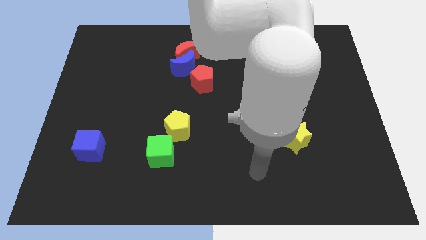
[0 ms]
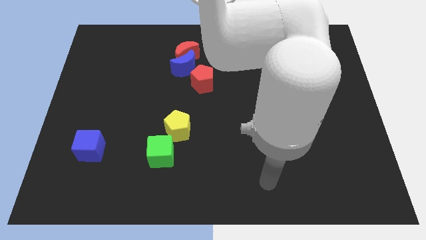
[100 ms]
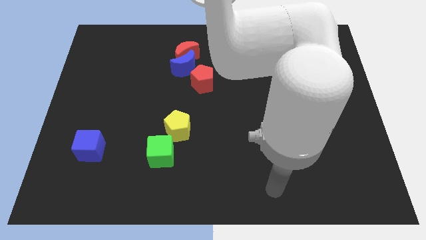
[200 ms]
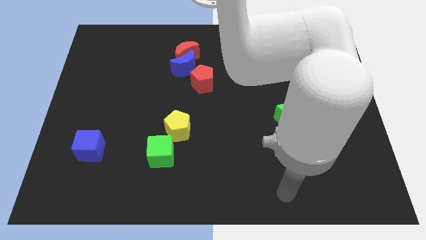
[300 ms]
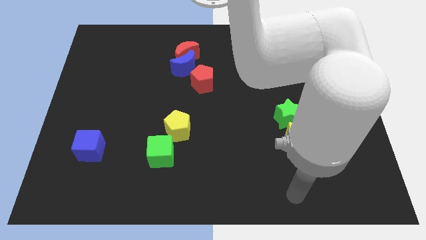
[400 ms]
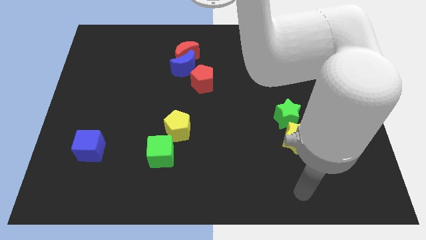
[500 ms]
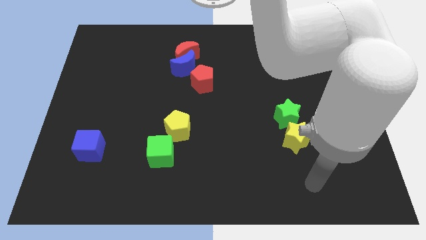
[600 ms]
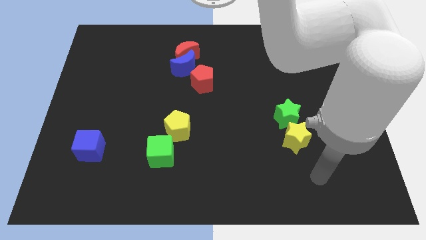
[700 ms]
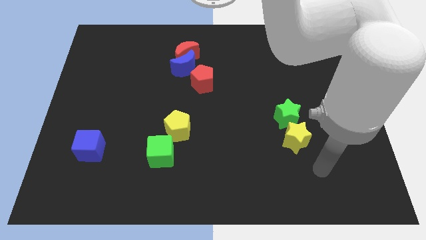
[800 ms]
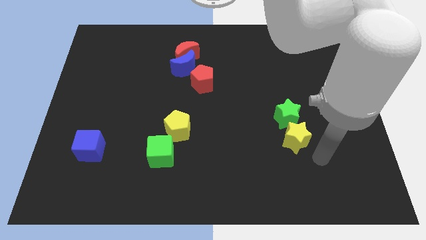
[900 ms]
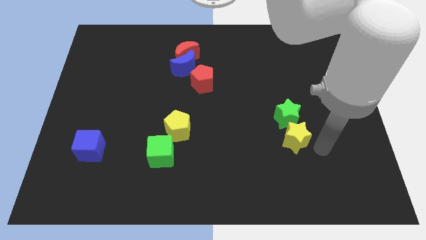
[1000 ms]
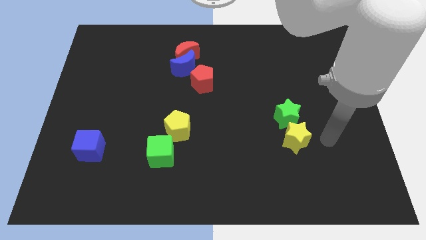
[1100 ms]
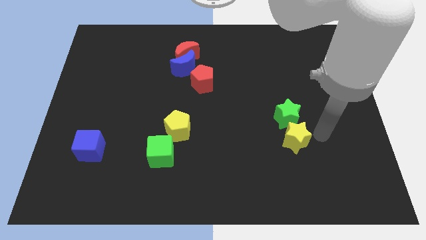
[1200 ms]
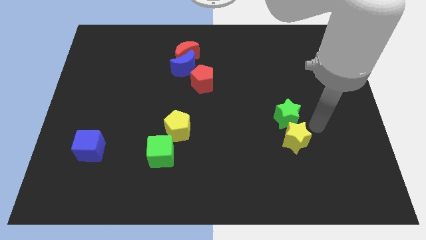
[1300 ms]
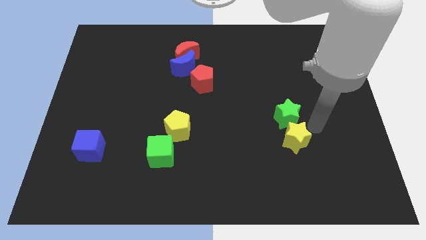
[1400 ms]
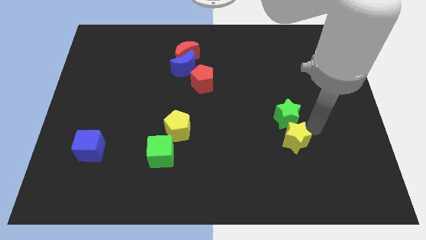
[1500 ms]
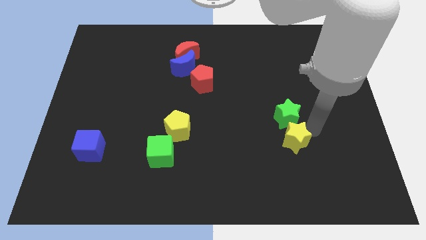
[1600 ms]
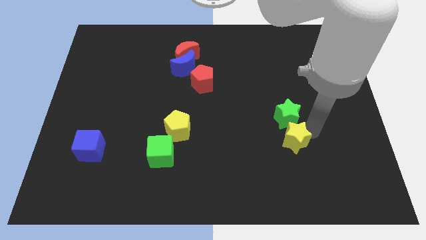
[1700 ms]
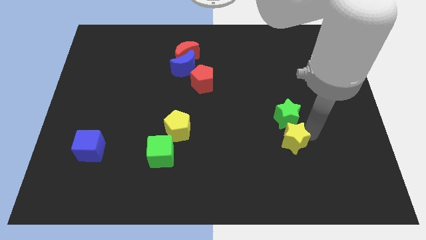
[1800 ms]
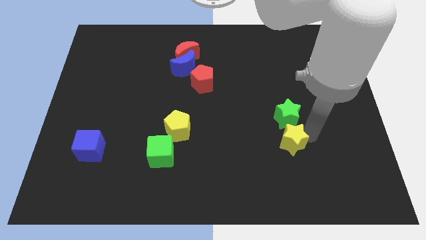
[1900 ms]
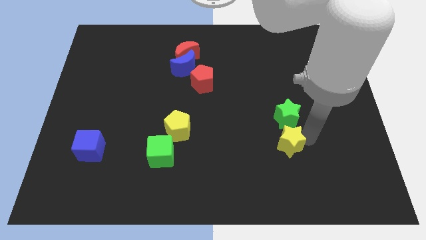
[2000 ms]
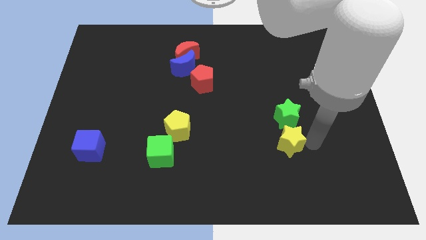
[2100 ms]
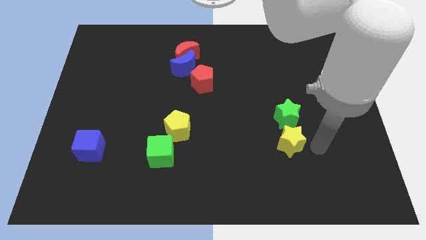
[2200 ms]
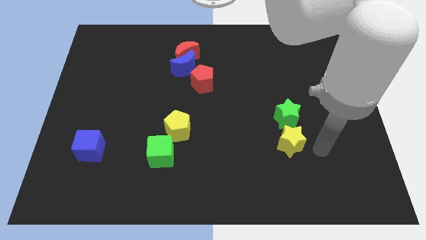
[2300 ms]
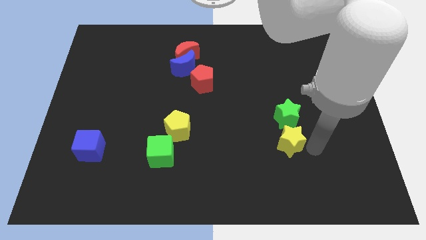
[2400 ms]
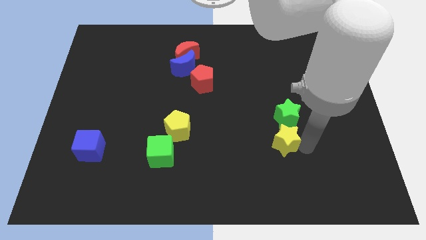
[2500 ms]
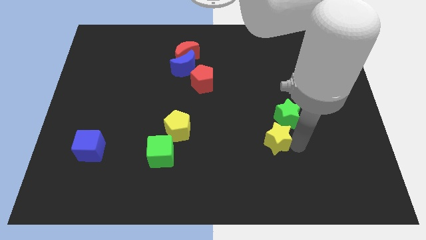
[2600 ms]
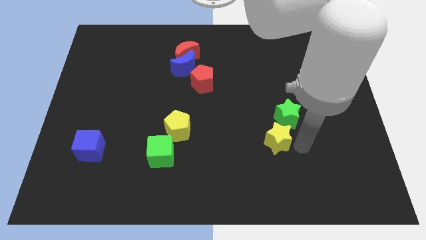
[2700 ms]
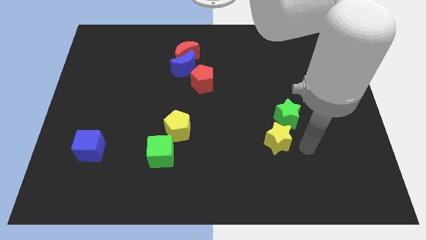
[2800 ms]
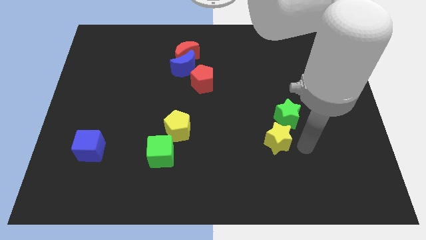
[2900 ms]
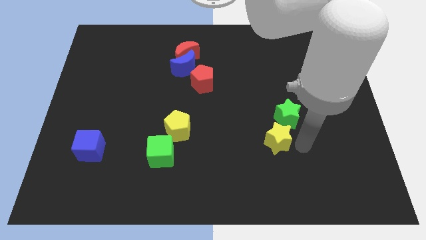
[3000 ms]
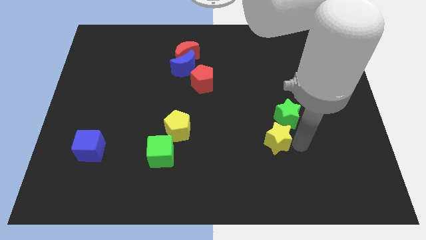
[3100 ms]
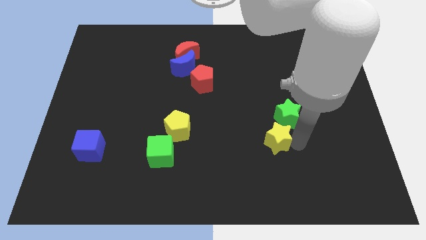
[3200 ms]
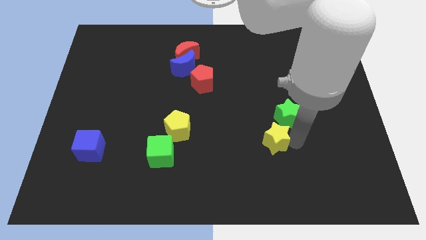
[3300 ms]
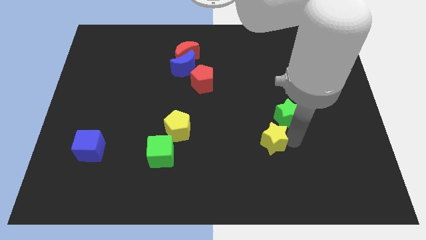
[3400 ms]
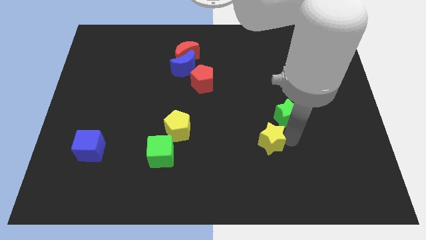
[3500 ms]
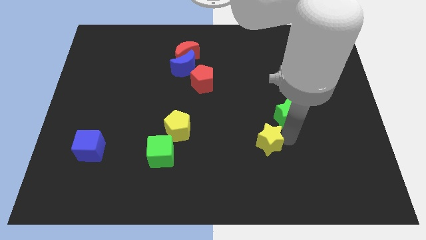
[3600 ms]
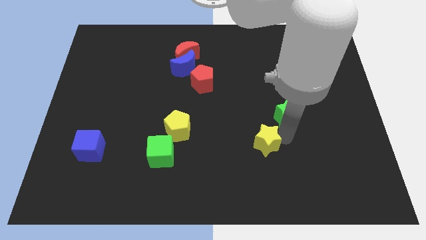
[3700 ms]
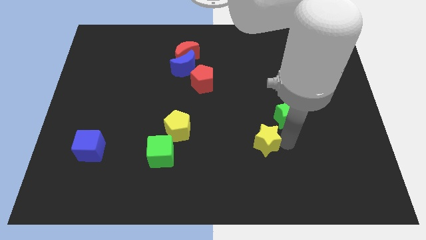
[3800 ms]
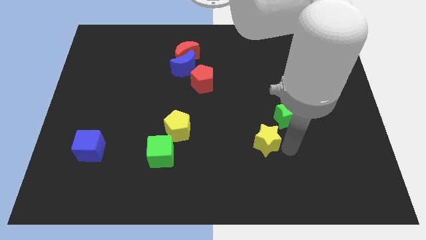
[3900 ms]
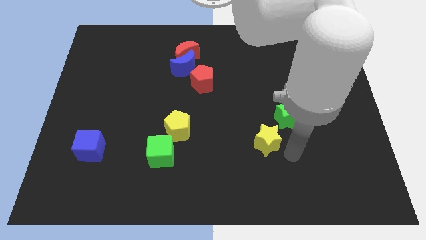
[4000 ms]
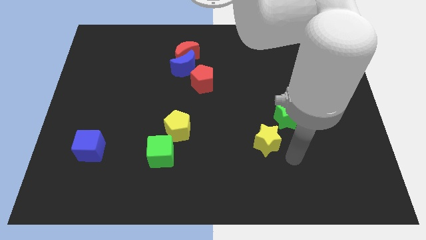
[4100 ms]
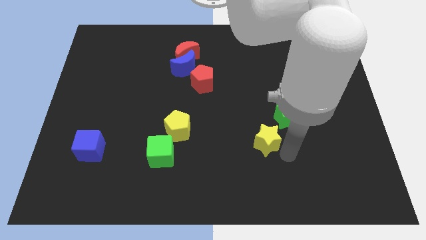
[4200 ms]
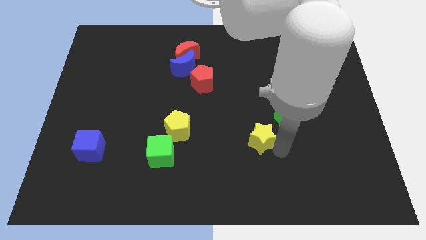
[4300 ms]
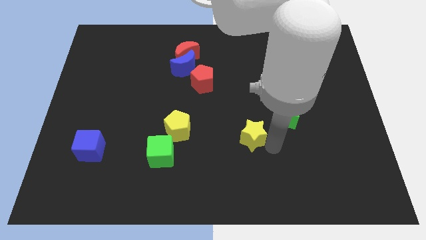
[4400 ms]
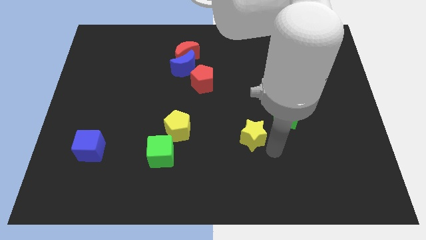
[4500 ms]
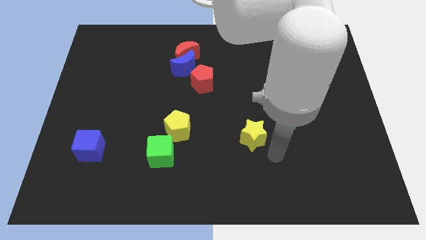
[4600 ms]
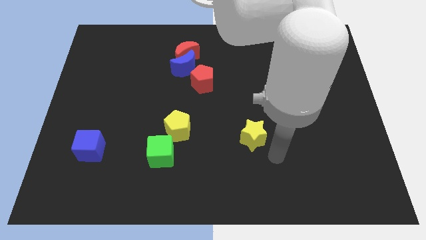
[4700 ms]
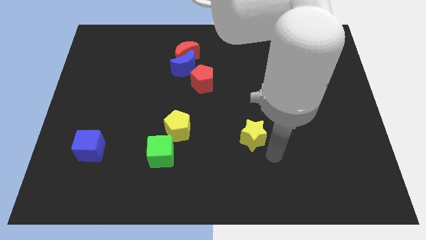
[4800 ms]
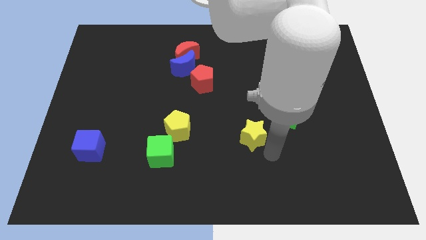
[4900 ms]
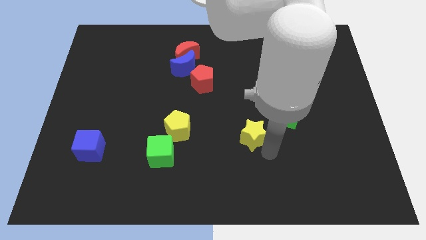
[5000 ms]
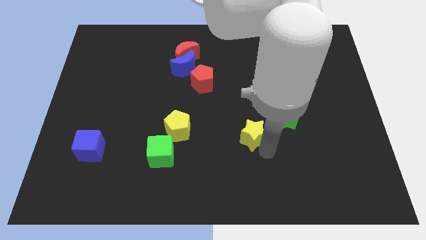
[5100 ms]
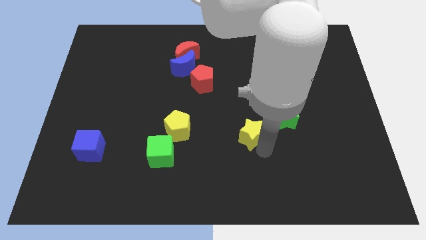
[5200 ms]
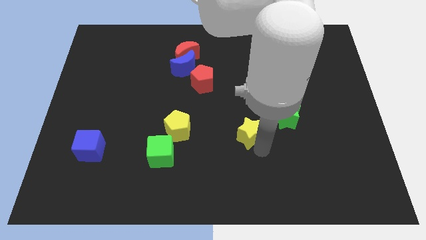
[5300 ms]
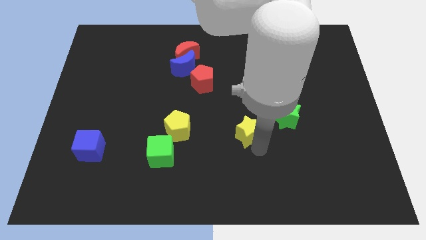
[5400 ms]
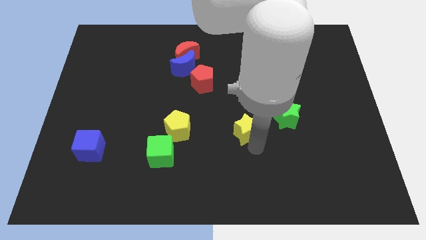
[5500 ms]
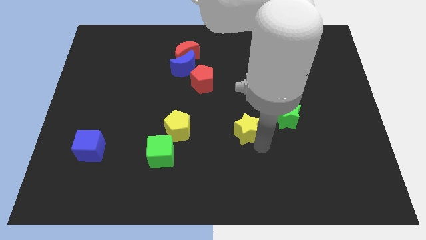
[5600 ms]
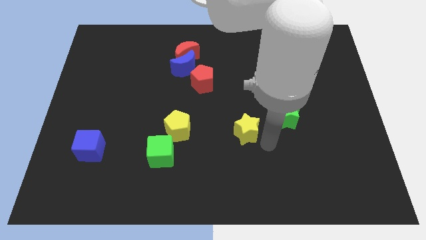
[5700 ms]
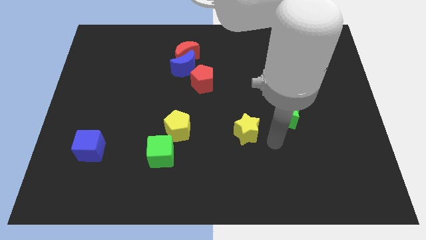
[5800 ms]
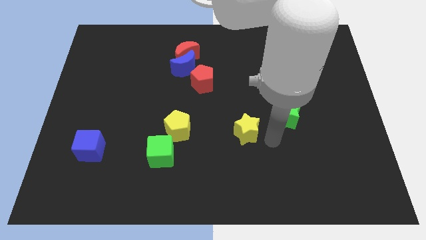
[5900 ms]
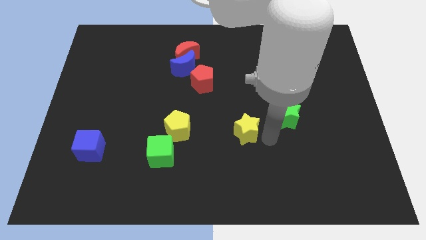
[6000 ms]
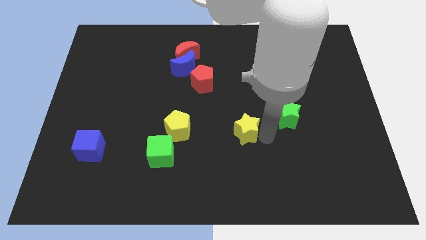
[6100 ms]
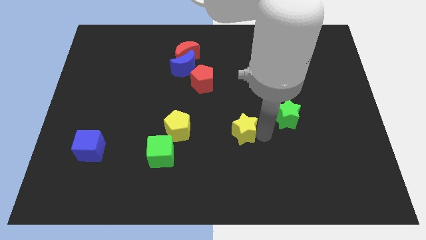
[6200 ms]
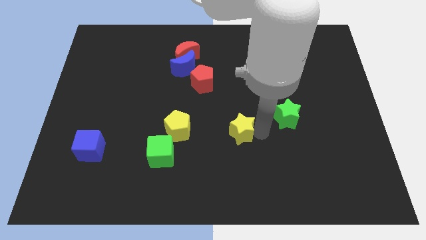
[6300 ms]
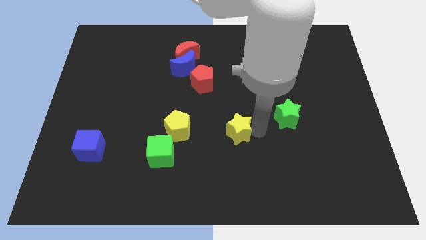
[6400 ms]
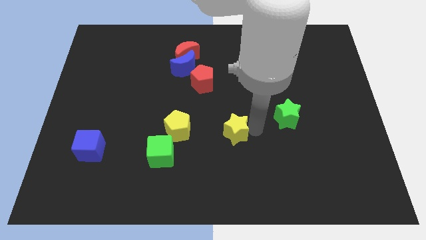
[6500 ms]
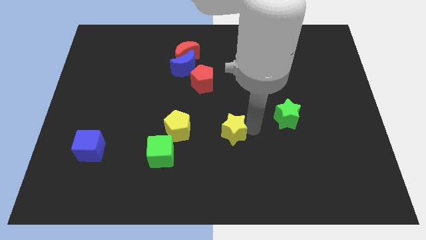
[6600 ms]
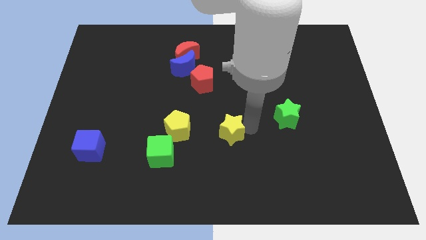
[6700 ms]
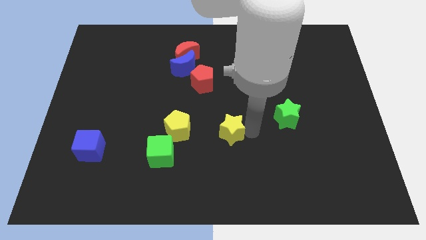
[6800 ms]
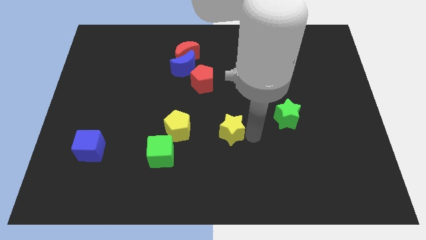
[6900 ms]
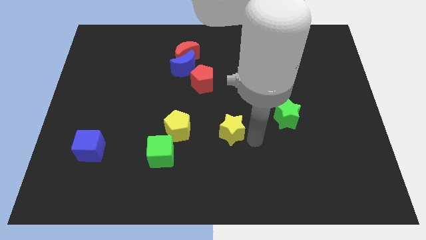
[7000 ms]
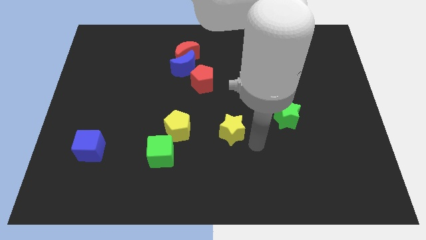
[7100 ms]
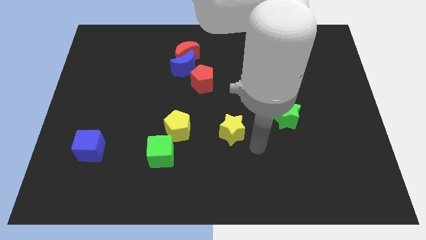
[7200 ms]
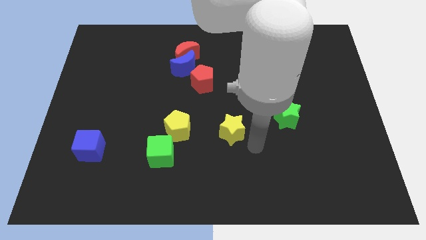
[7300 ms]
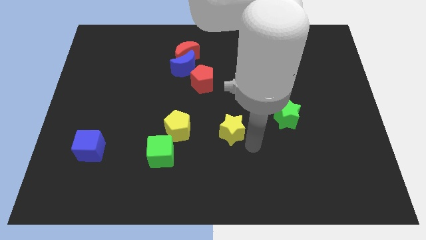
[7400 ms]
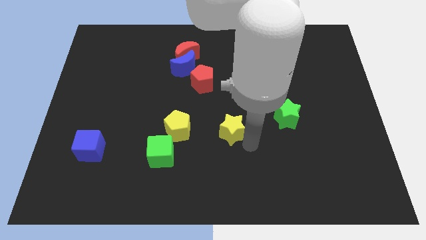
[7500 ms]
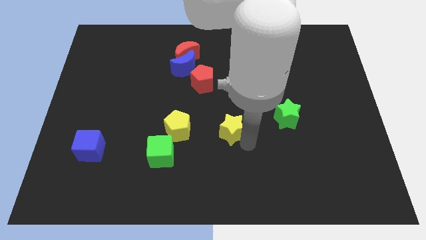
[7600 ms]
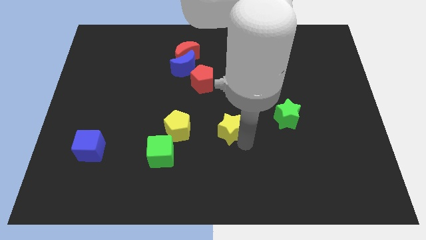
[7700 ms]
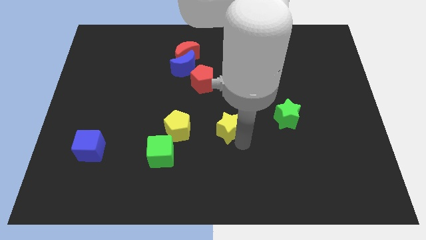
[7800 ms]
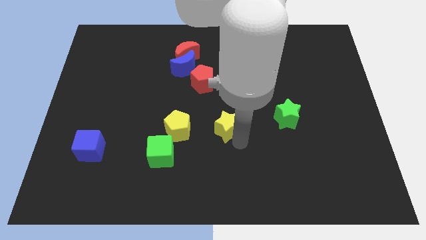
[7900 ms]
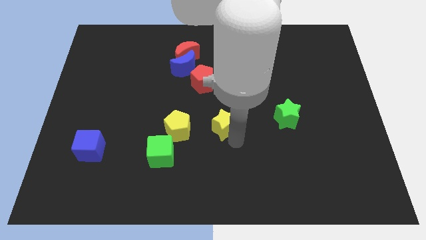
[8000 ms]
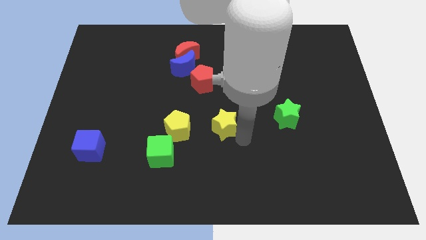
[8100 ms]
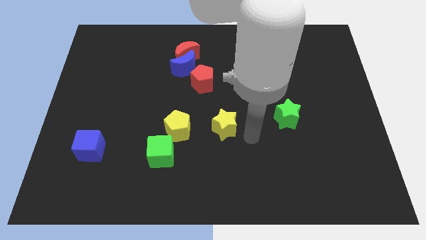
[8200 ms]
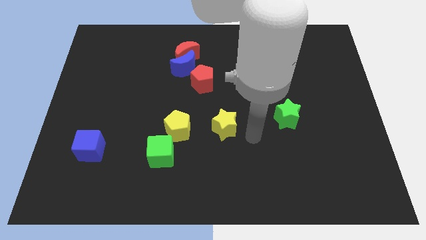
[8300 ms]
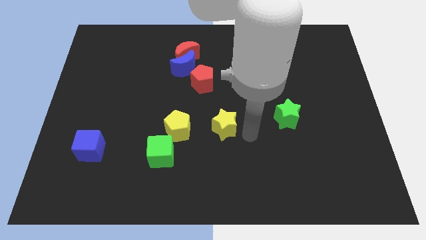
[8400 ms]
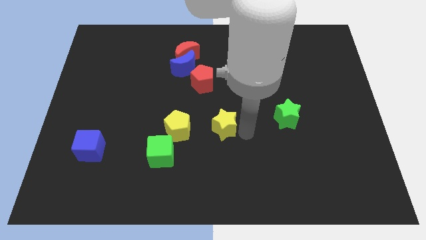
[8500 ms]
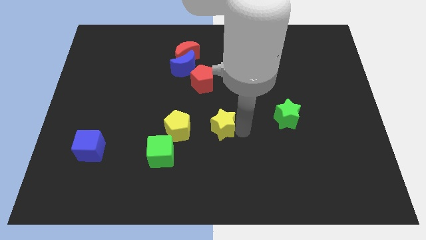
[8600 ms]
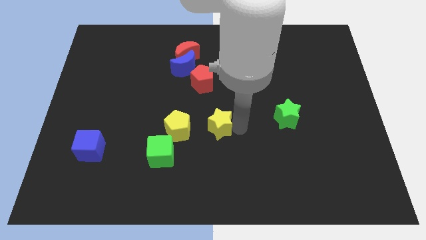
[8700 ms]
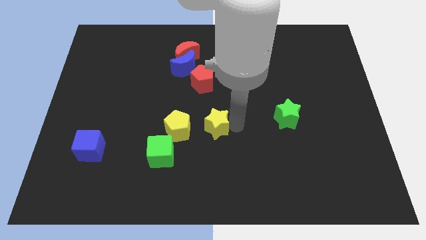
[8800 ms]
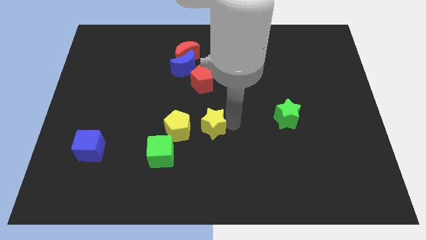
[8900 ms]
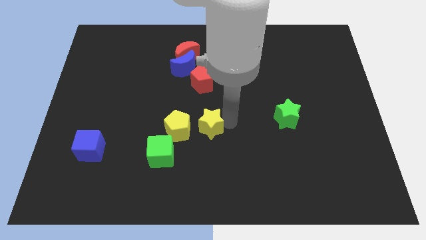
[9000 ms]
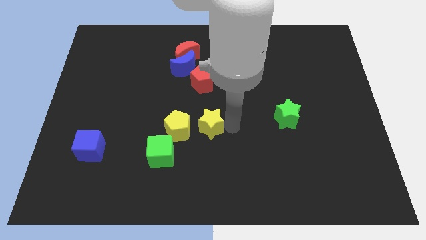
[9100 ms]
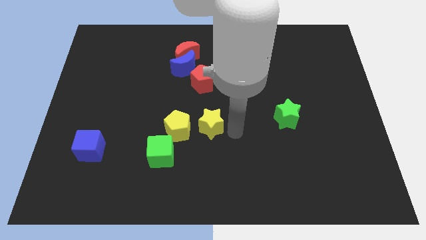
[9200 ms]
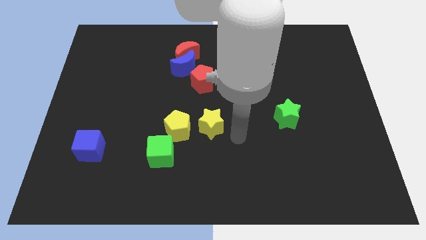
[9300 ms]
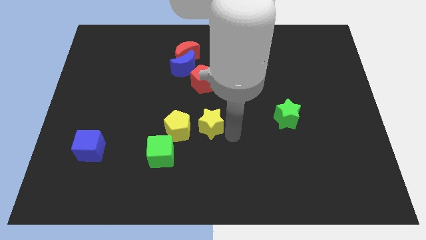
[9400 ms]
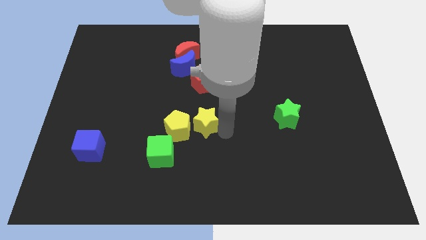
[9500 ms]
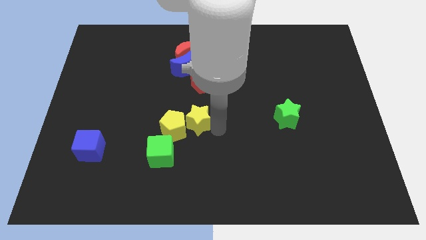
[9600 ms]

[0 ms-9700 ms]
move the yellow star to the left
